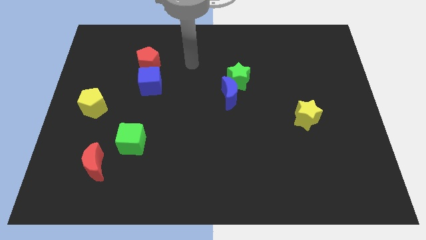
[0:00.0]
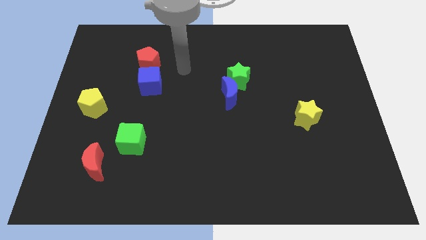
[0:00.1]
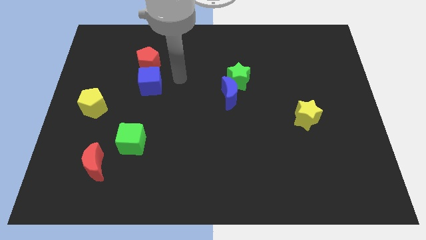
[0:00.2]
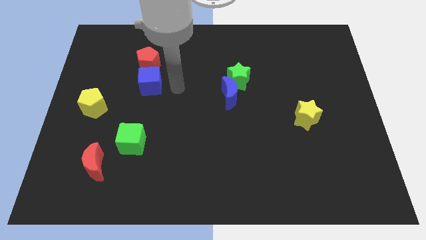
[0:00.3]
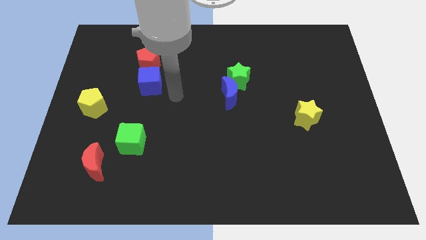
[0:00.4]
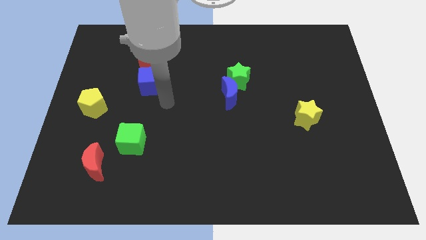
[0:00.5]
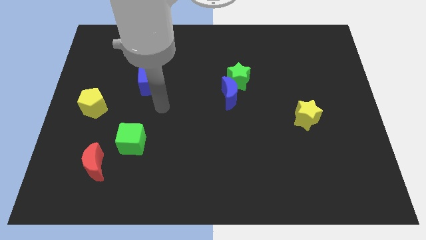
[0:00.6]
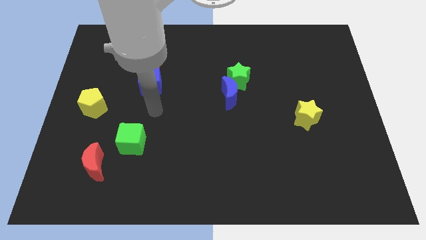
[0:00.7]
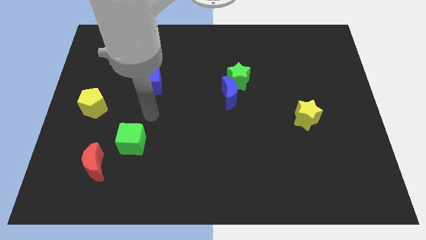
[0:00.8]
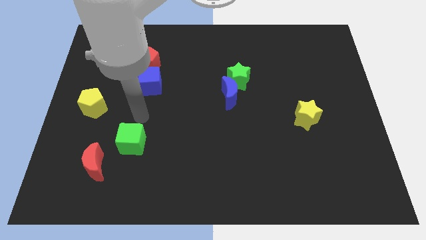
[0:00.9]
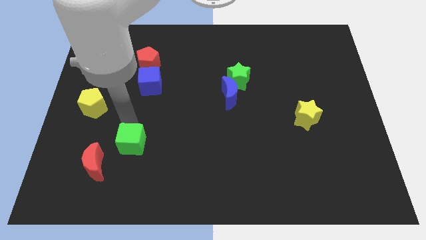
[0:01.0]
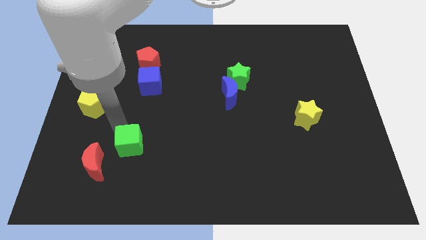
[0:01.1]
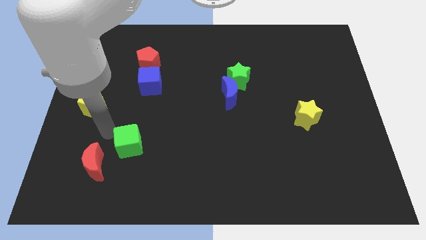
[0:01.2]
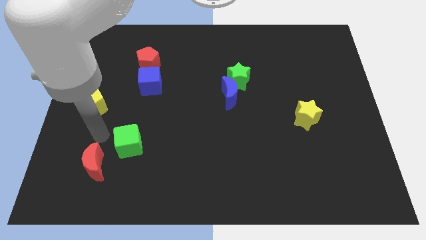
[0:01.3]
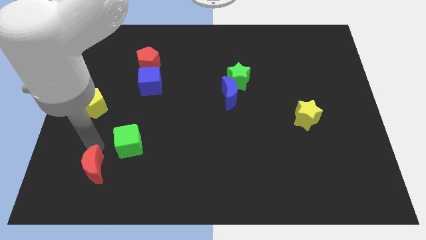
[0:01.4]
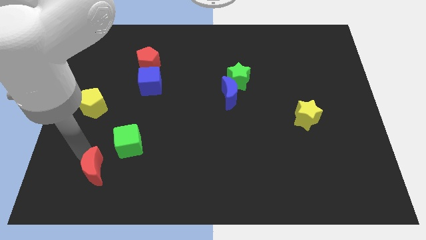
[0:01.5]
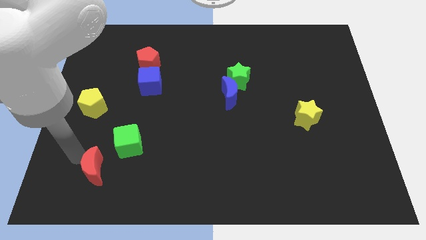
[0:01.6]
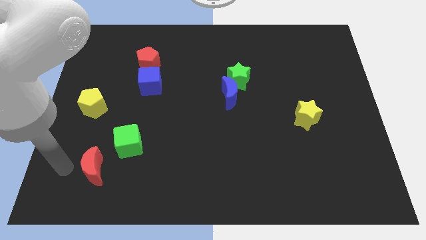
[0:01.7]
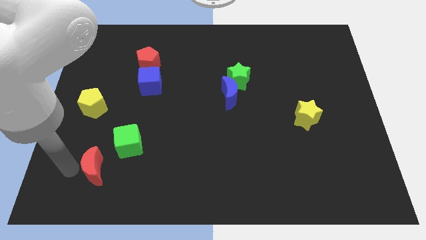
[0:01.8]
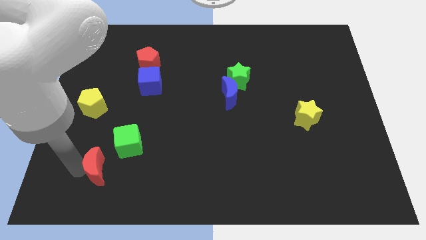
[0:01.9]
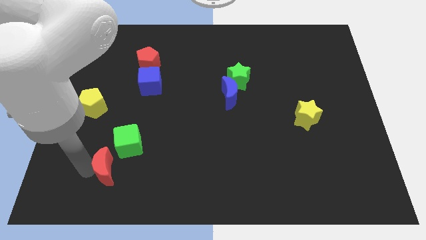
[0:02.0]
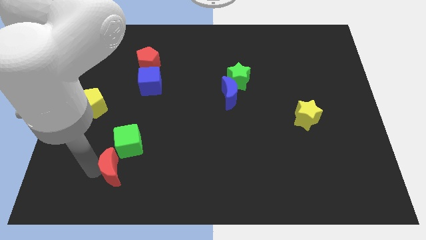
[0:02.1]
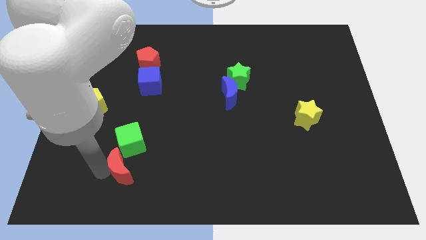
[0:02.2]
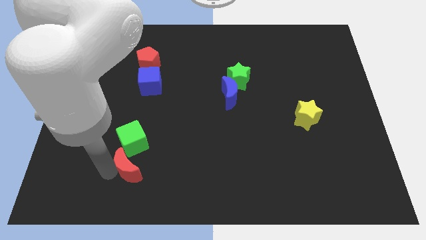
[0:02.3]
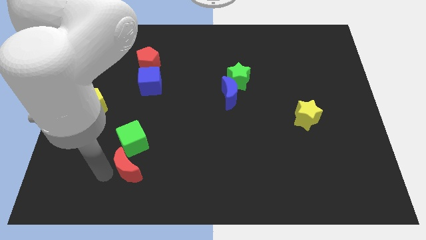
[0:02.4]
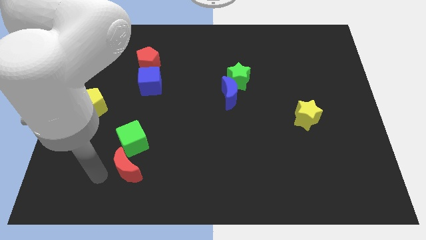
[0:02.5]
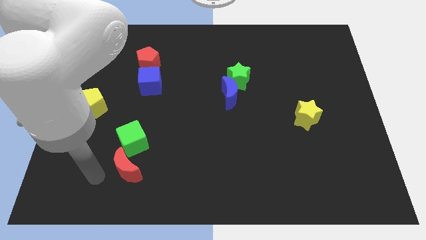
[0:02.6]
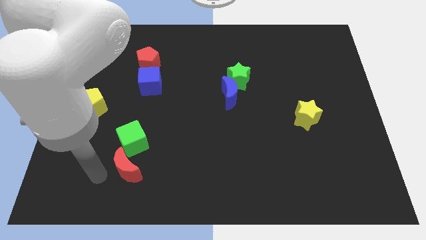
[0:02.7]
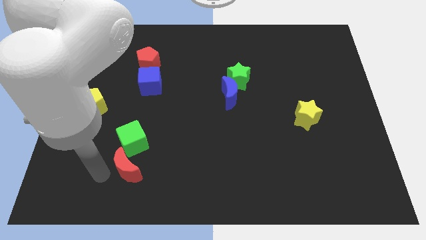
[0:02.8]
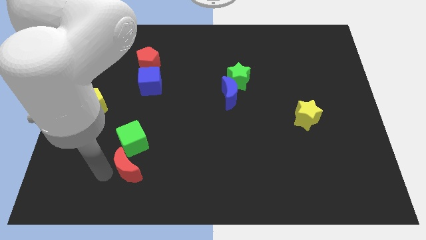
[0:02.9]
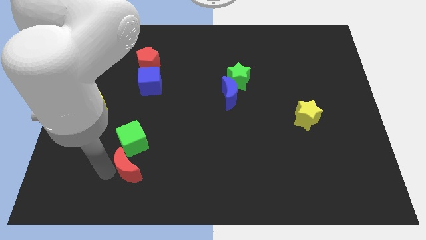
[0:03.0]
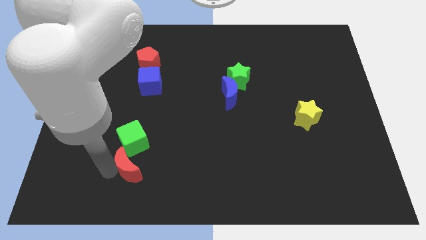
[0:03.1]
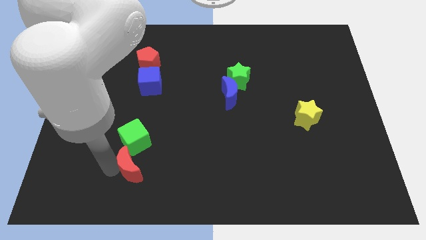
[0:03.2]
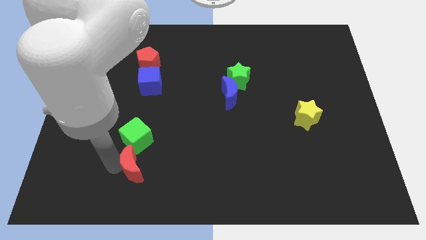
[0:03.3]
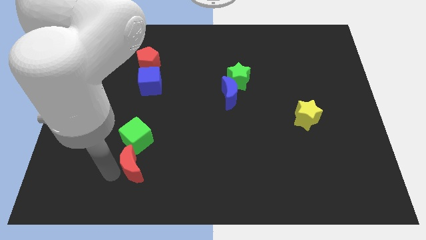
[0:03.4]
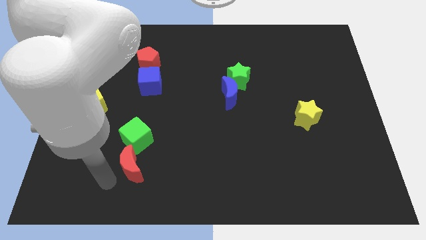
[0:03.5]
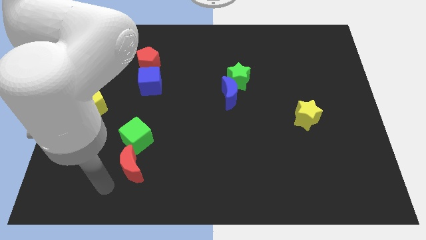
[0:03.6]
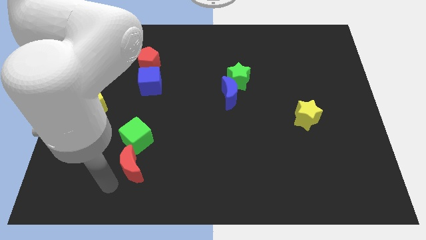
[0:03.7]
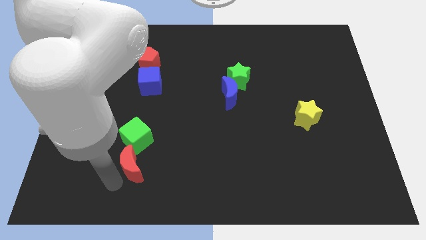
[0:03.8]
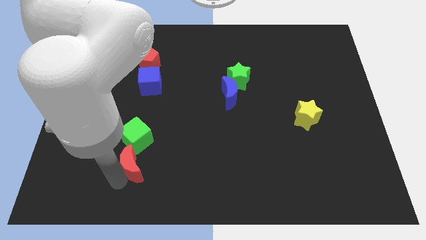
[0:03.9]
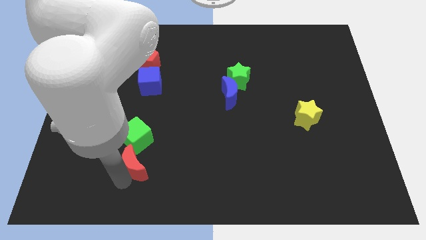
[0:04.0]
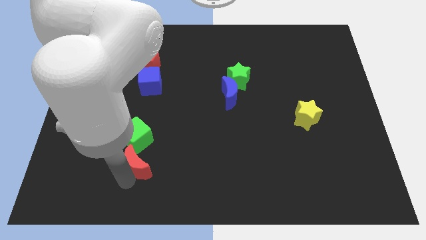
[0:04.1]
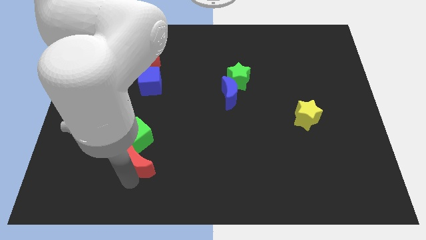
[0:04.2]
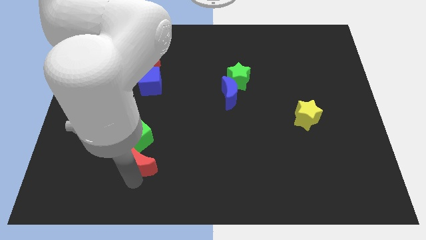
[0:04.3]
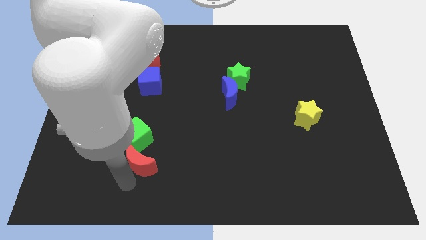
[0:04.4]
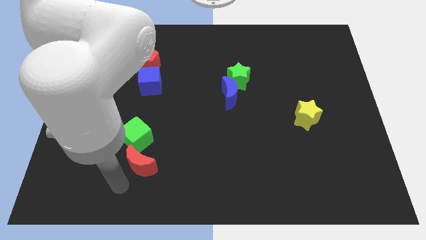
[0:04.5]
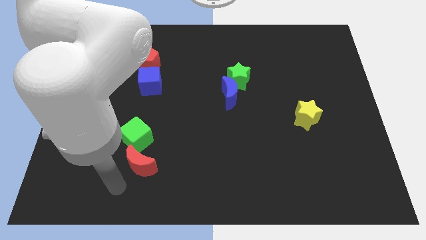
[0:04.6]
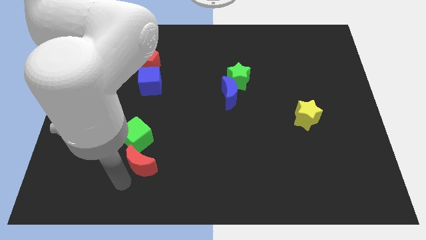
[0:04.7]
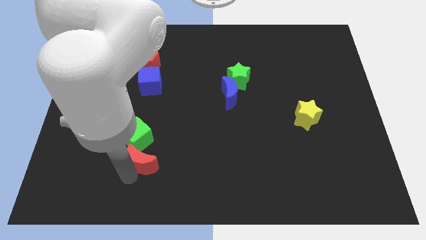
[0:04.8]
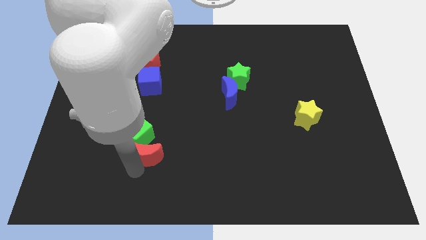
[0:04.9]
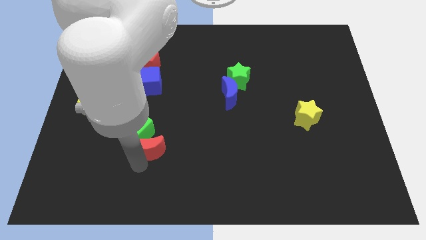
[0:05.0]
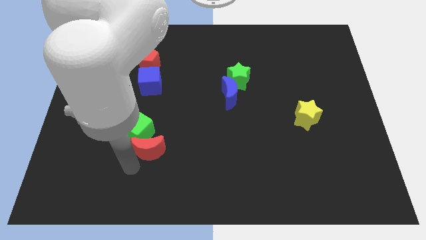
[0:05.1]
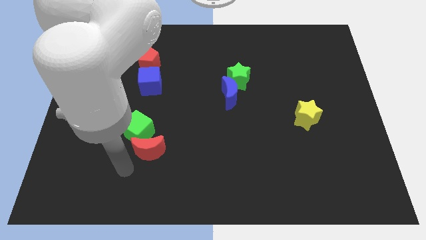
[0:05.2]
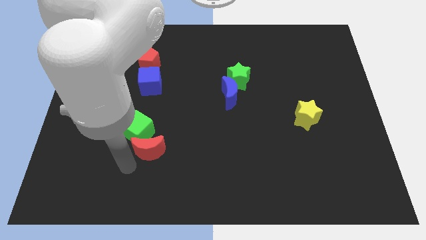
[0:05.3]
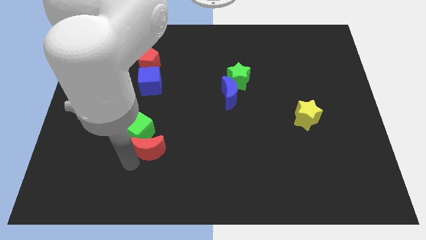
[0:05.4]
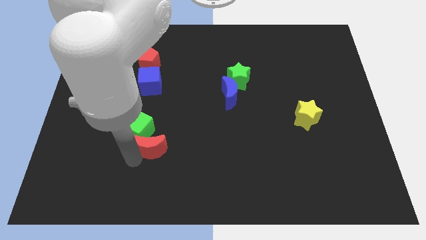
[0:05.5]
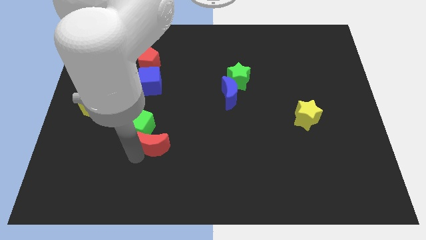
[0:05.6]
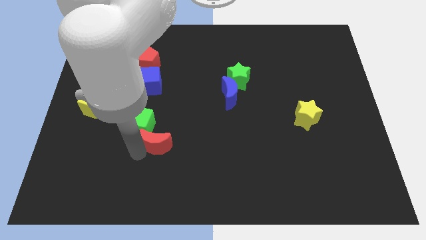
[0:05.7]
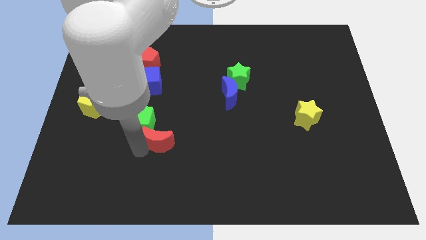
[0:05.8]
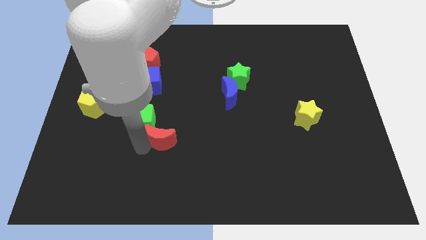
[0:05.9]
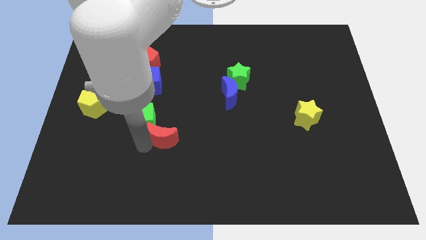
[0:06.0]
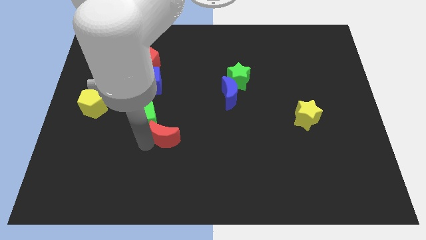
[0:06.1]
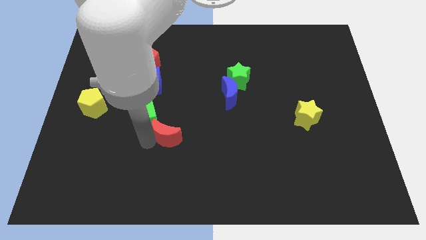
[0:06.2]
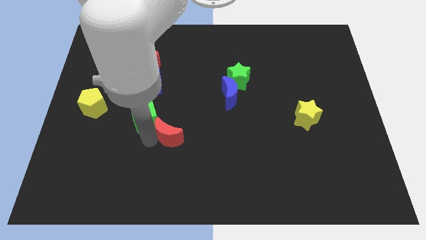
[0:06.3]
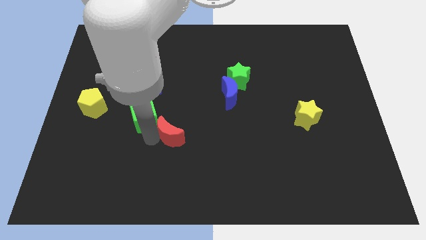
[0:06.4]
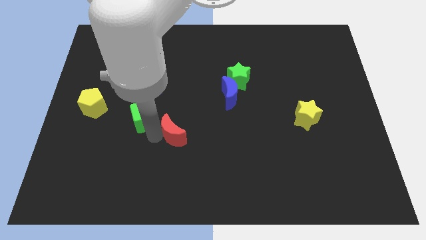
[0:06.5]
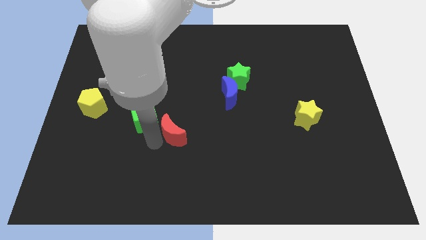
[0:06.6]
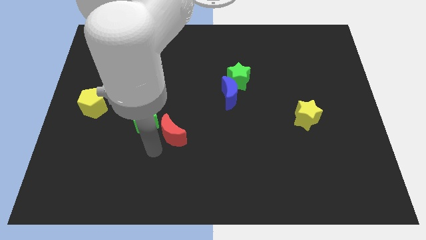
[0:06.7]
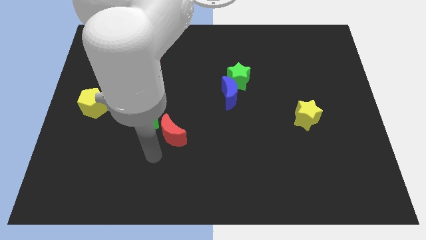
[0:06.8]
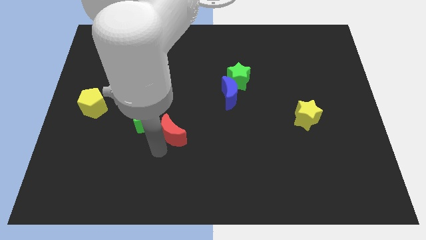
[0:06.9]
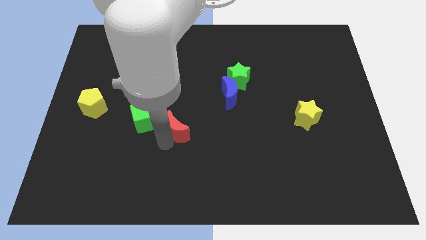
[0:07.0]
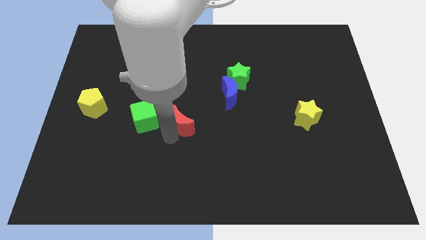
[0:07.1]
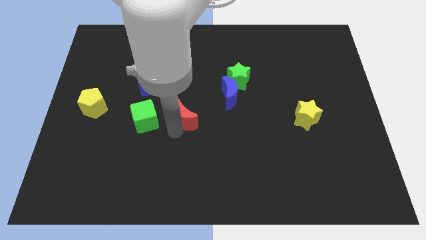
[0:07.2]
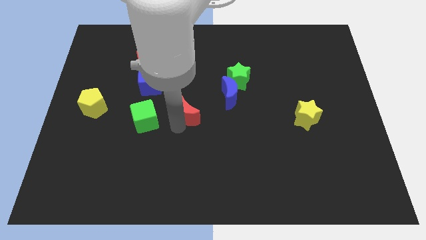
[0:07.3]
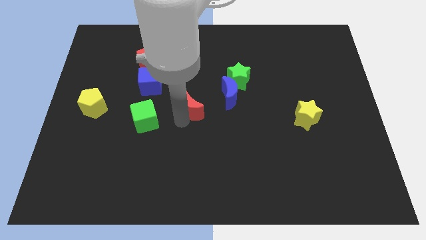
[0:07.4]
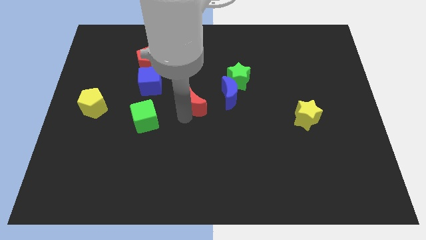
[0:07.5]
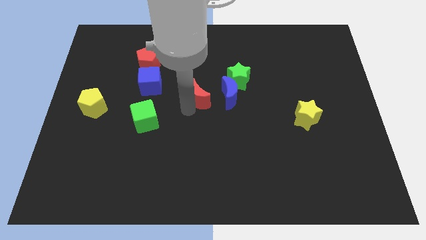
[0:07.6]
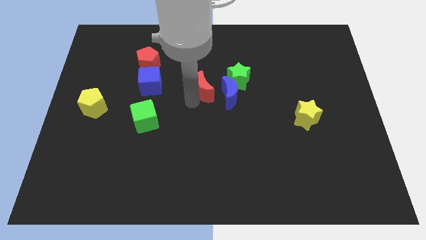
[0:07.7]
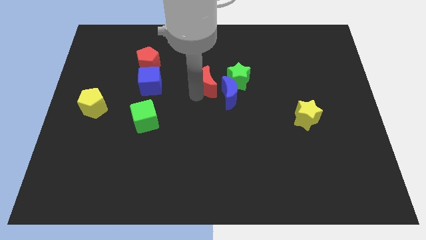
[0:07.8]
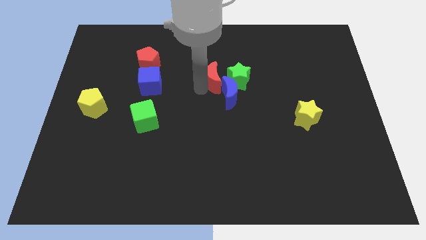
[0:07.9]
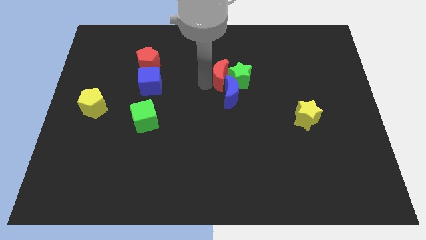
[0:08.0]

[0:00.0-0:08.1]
move the red moon close to the green star
